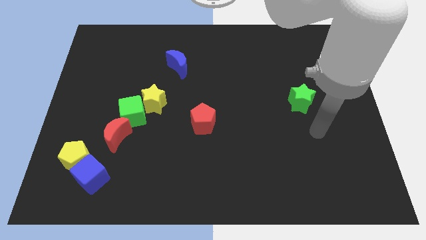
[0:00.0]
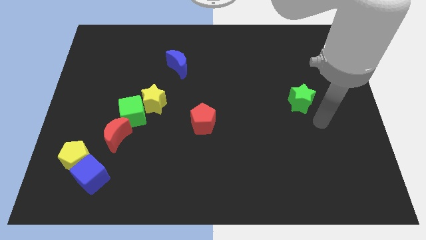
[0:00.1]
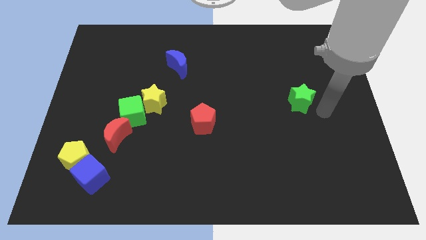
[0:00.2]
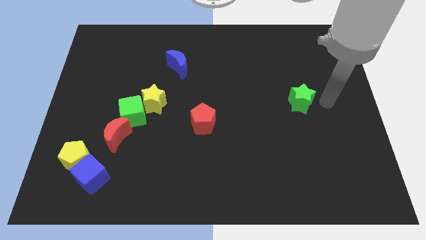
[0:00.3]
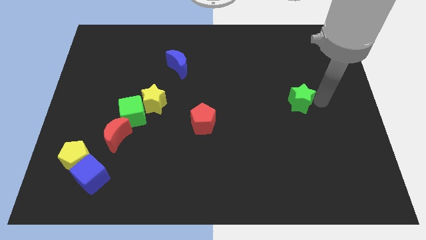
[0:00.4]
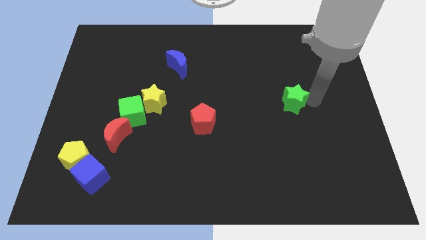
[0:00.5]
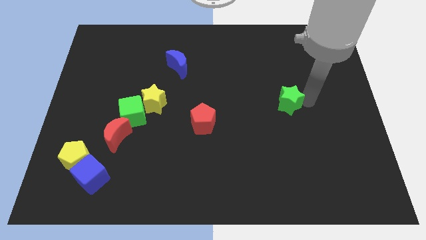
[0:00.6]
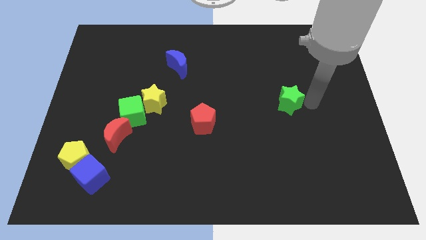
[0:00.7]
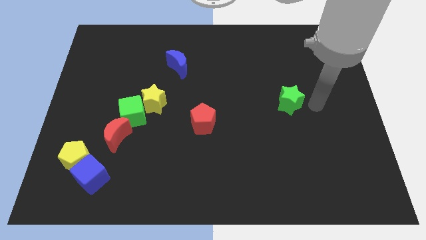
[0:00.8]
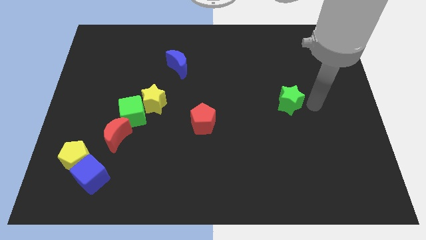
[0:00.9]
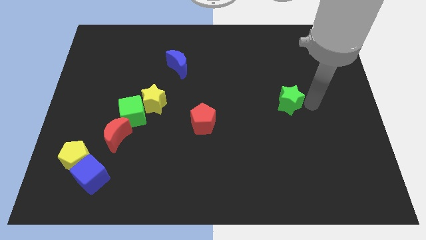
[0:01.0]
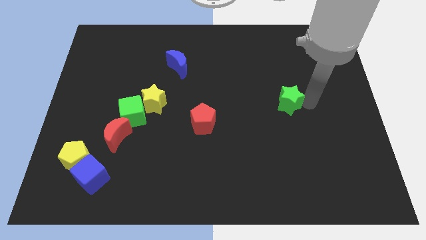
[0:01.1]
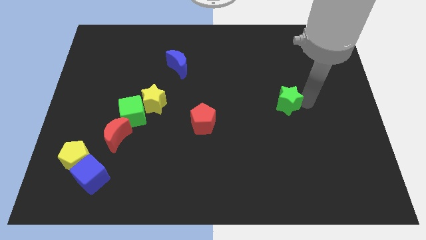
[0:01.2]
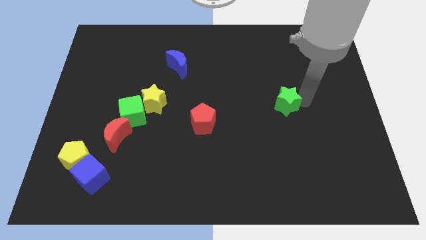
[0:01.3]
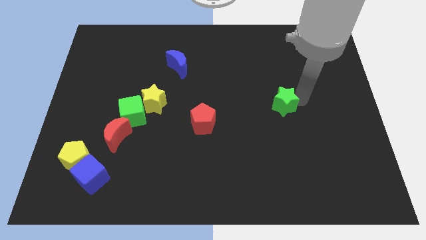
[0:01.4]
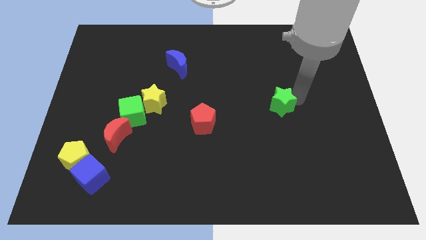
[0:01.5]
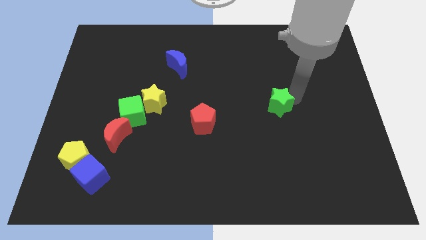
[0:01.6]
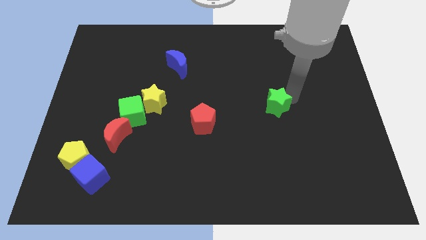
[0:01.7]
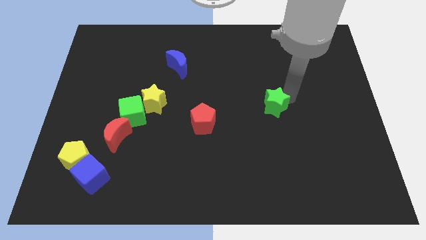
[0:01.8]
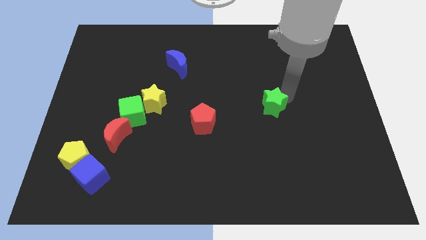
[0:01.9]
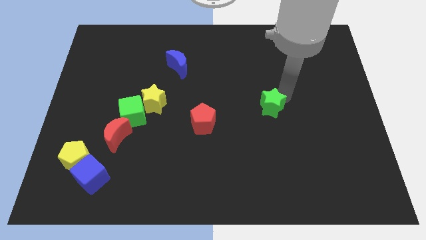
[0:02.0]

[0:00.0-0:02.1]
push the green star a little to the left

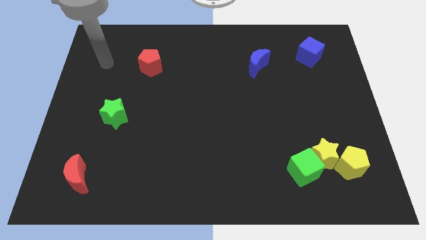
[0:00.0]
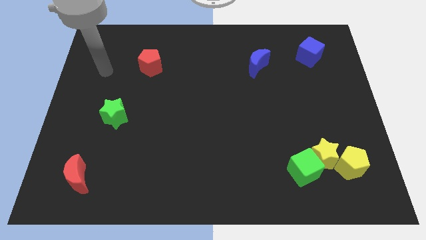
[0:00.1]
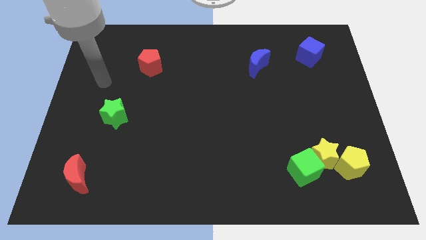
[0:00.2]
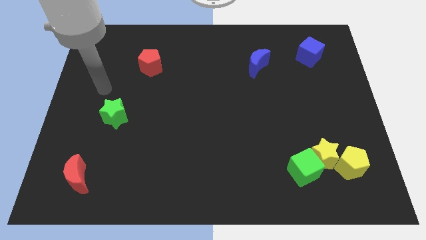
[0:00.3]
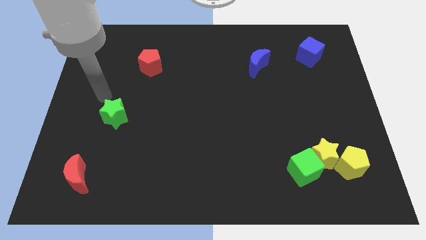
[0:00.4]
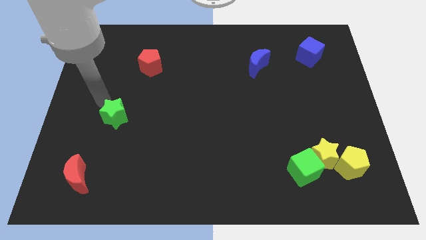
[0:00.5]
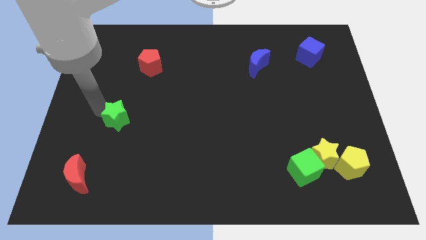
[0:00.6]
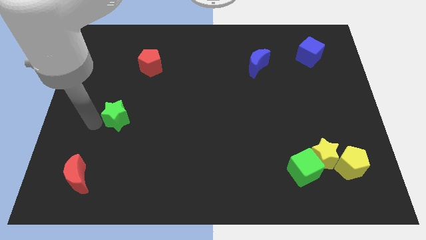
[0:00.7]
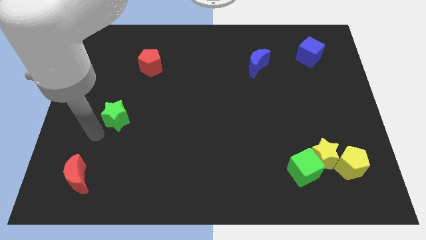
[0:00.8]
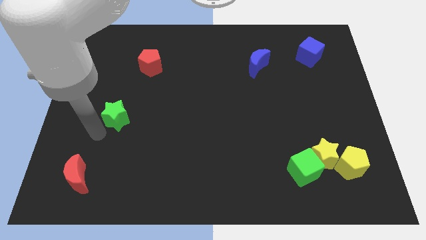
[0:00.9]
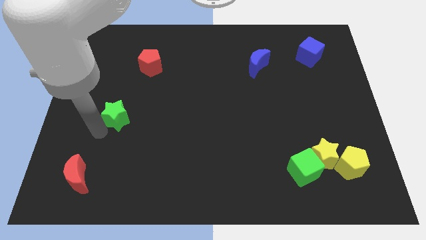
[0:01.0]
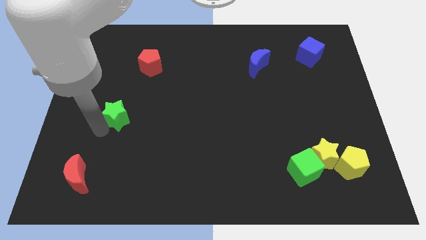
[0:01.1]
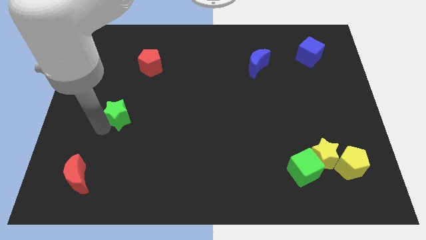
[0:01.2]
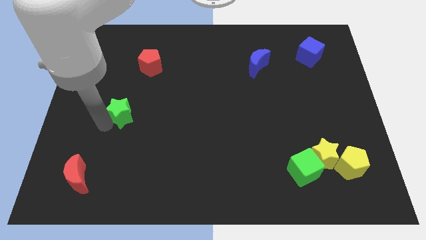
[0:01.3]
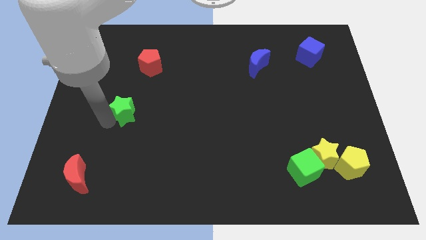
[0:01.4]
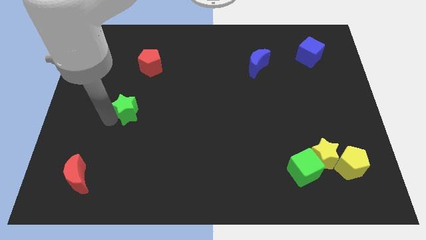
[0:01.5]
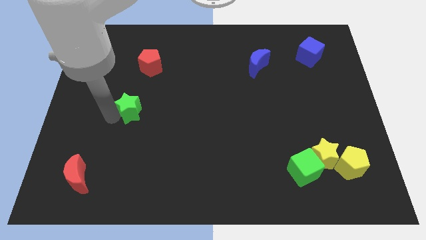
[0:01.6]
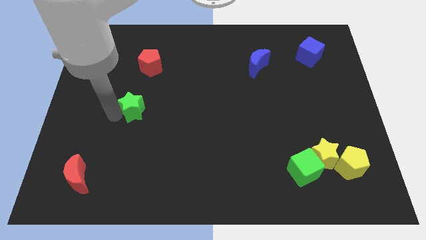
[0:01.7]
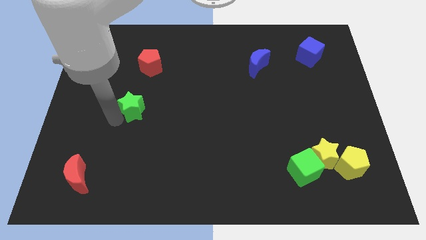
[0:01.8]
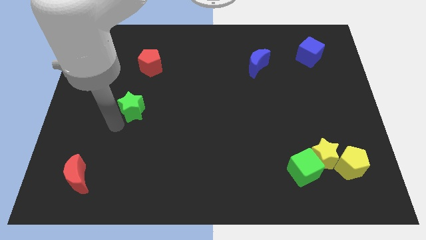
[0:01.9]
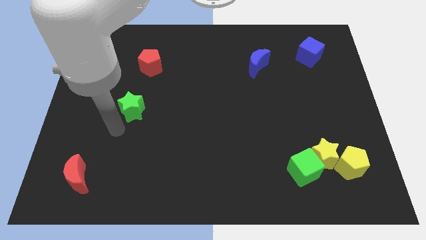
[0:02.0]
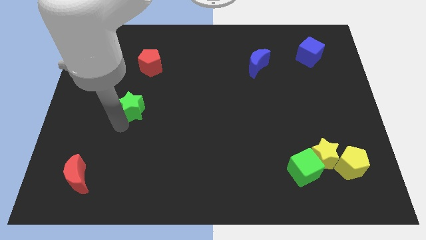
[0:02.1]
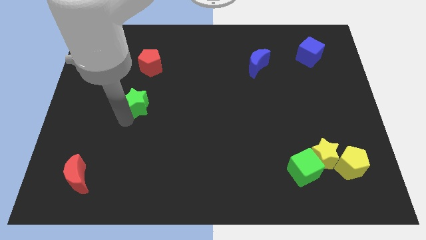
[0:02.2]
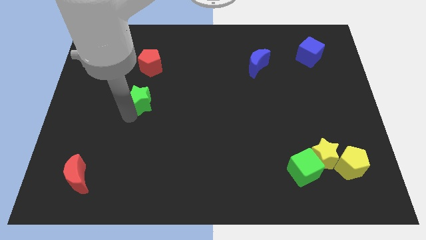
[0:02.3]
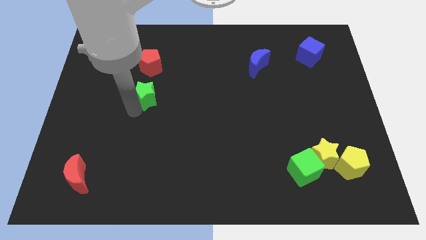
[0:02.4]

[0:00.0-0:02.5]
slightly push the green star up and to the right diagonally

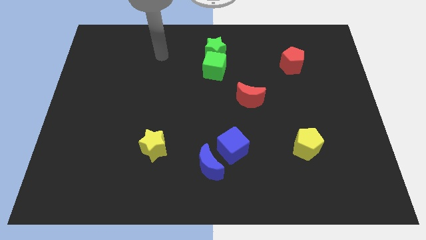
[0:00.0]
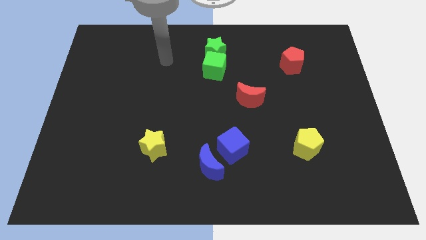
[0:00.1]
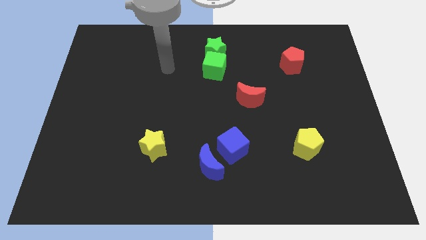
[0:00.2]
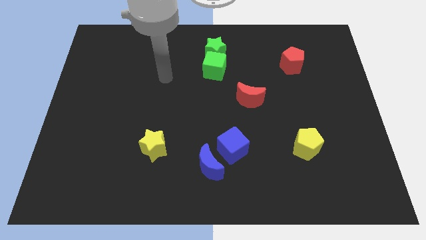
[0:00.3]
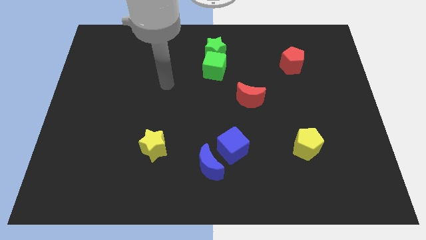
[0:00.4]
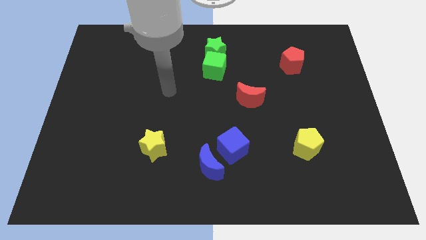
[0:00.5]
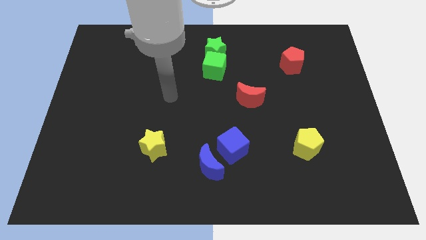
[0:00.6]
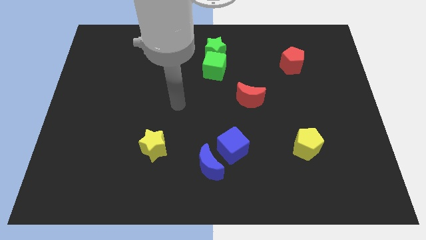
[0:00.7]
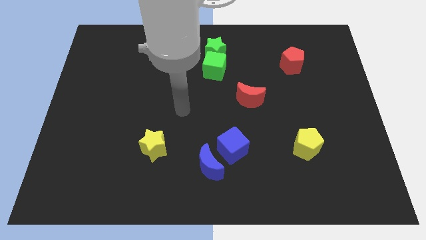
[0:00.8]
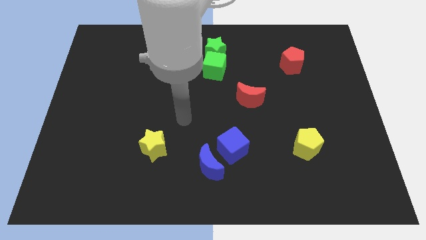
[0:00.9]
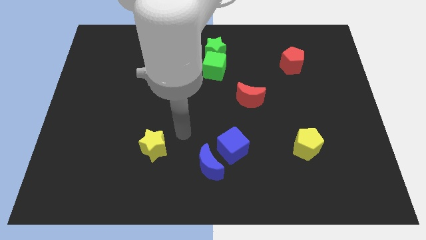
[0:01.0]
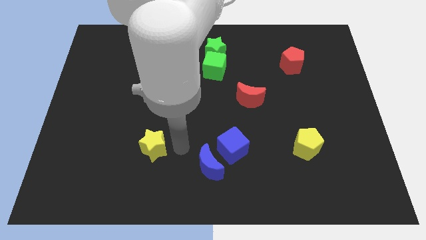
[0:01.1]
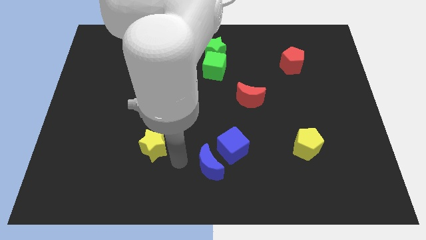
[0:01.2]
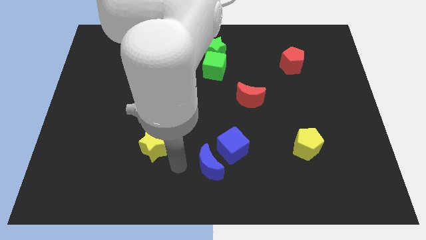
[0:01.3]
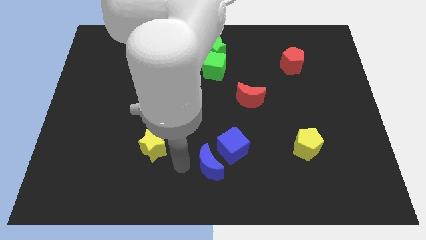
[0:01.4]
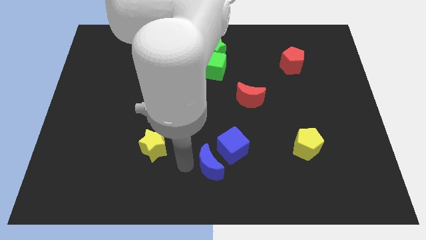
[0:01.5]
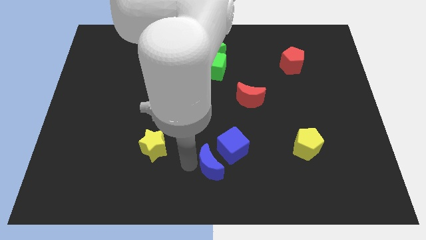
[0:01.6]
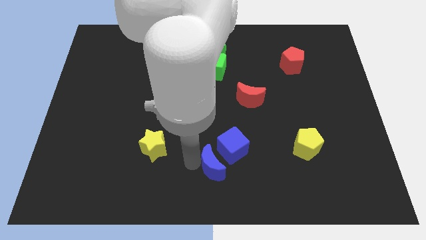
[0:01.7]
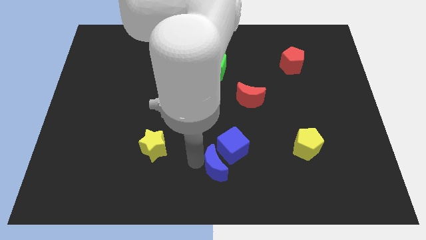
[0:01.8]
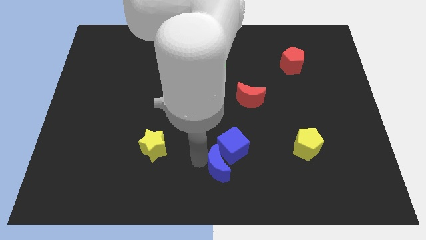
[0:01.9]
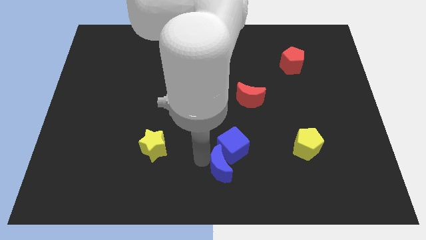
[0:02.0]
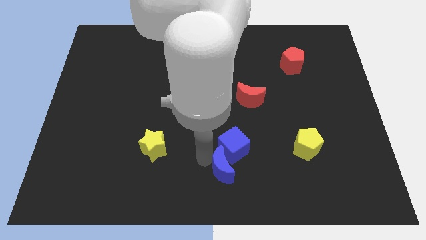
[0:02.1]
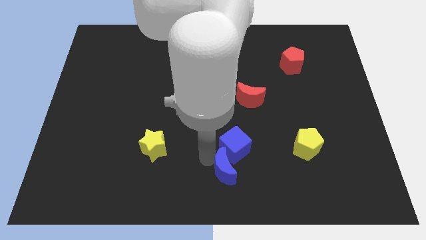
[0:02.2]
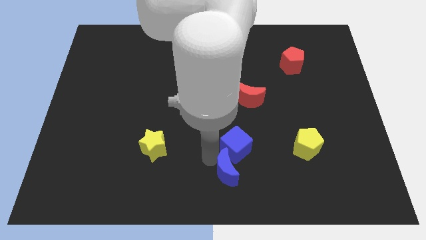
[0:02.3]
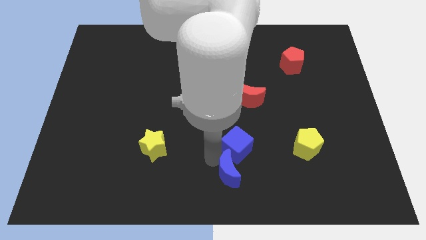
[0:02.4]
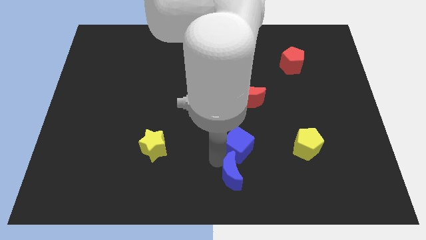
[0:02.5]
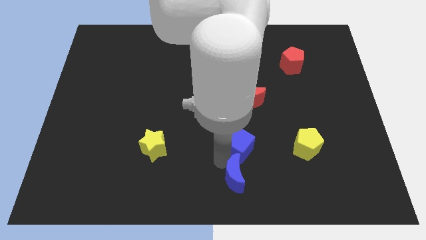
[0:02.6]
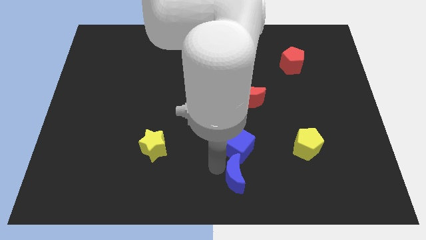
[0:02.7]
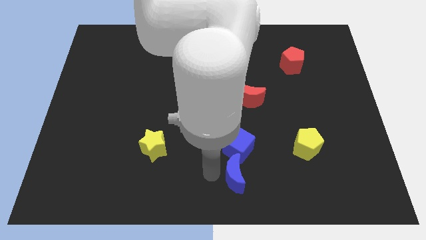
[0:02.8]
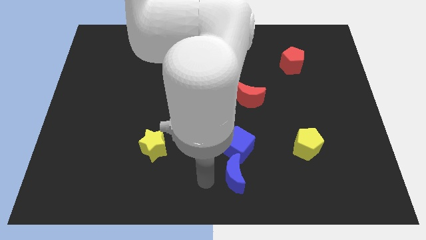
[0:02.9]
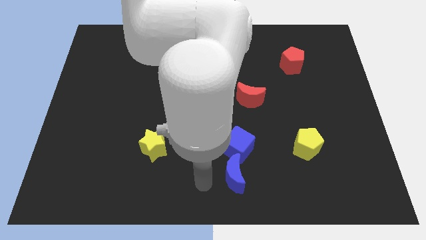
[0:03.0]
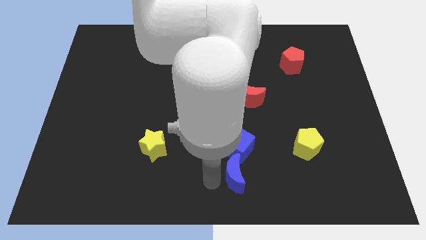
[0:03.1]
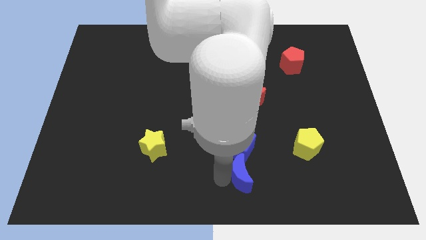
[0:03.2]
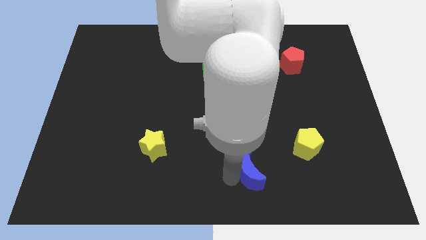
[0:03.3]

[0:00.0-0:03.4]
slightly push the blue moon right
